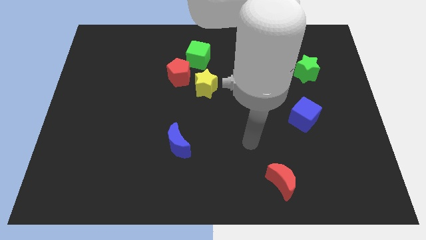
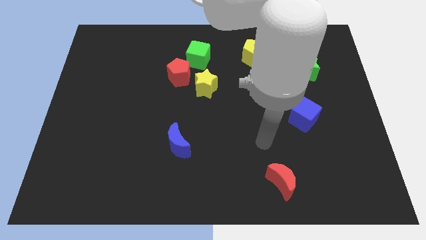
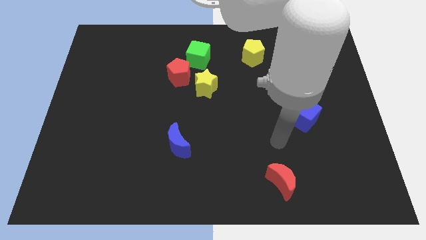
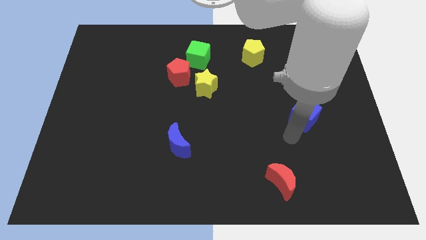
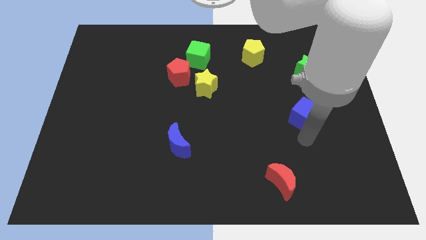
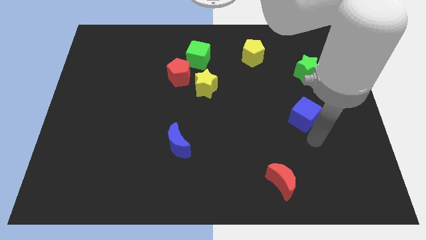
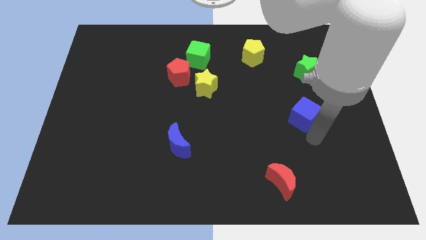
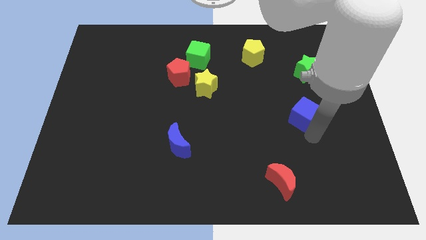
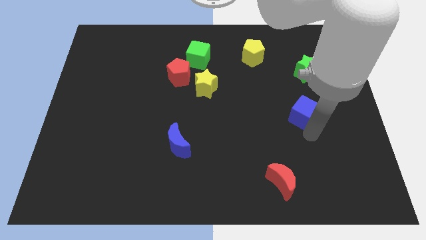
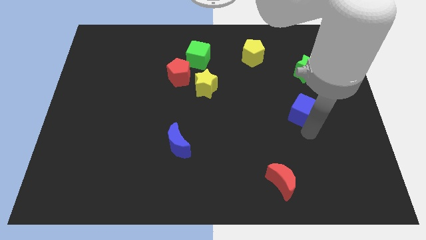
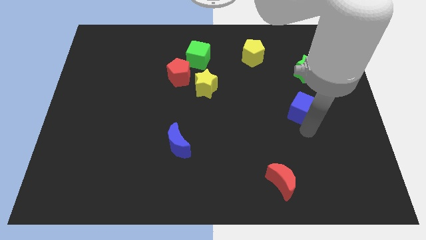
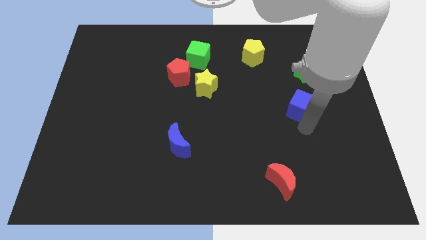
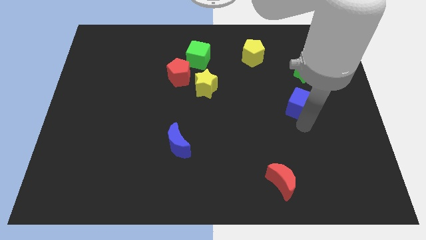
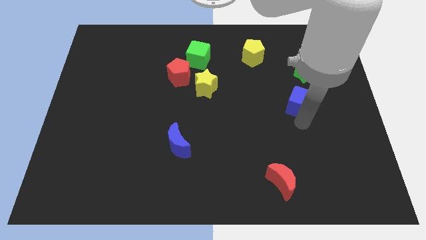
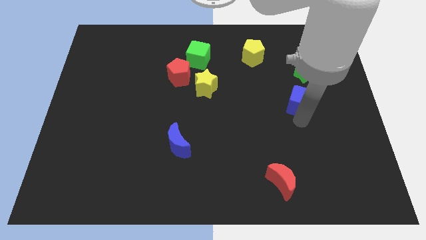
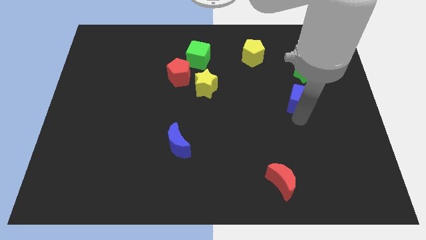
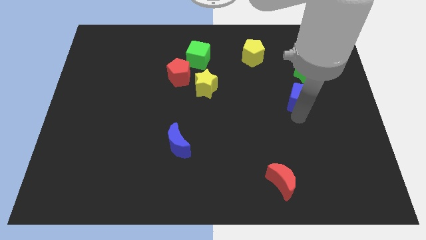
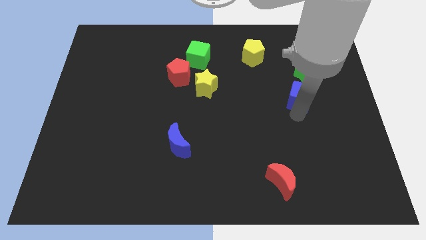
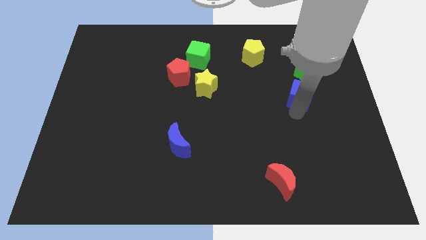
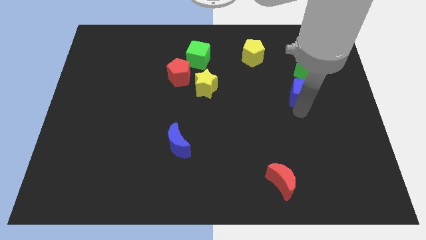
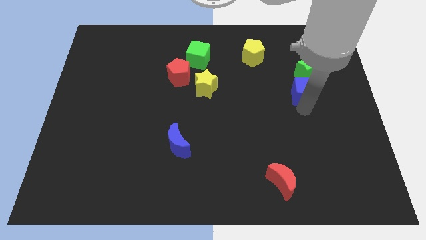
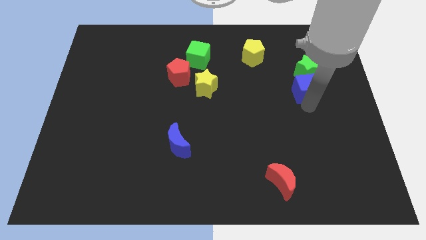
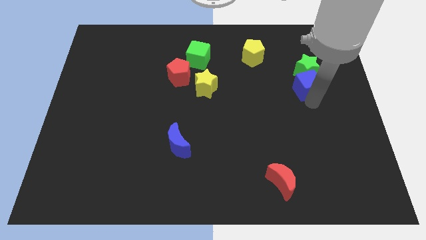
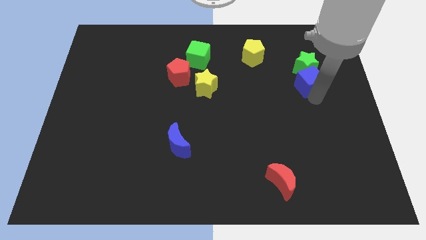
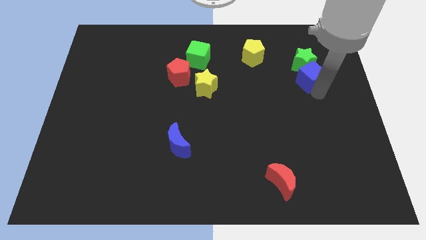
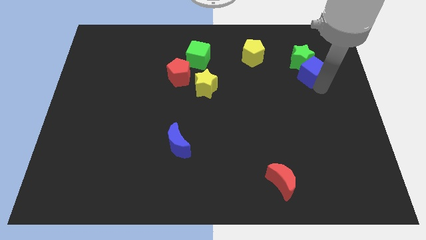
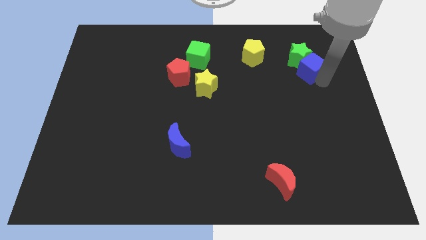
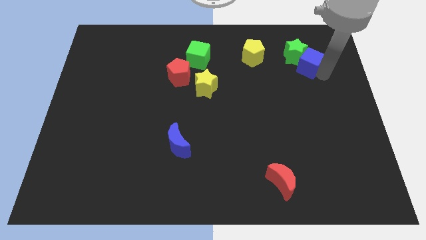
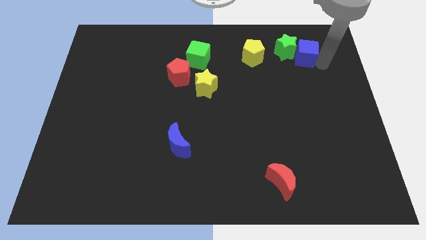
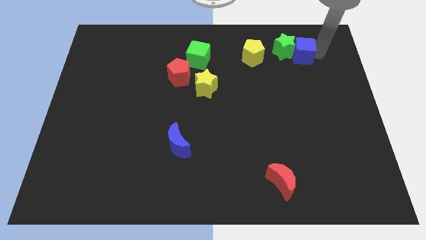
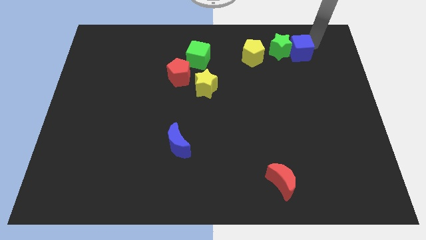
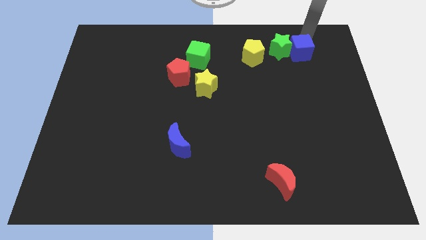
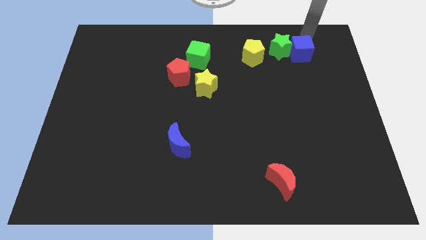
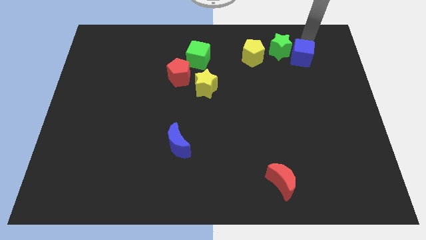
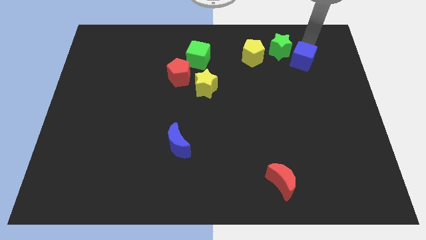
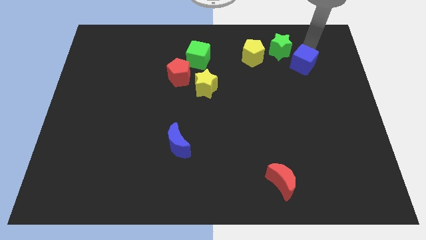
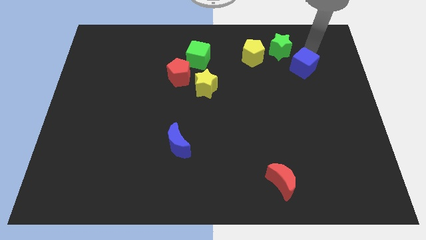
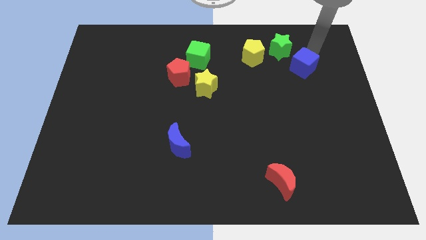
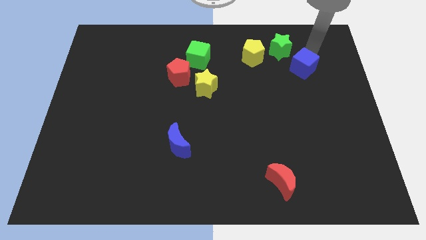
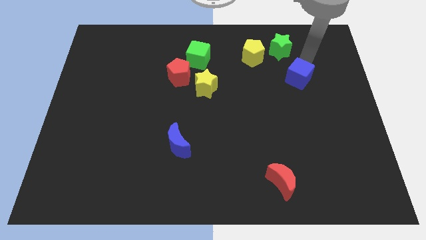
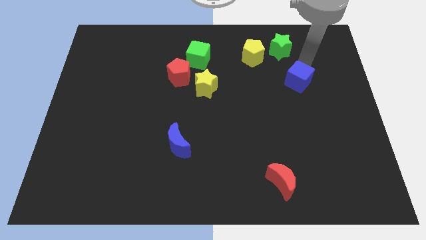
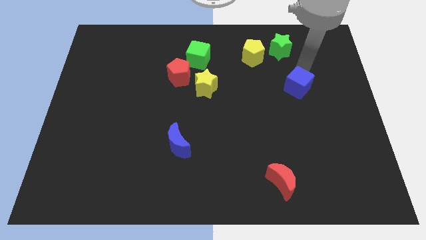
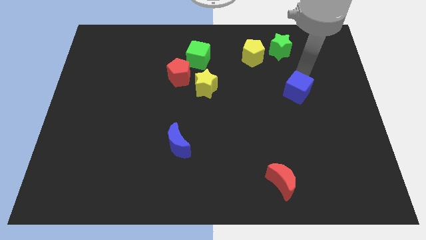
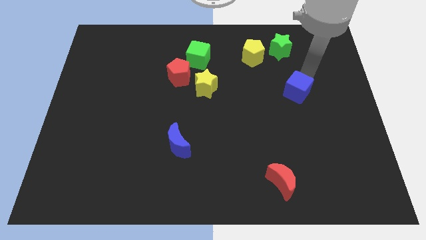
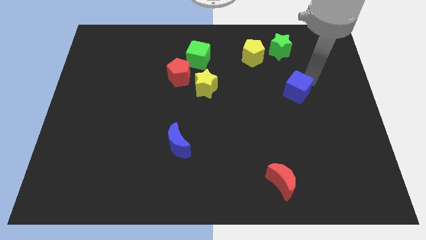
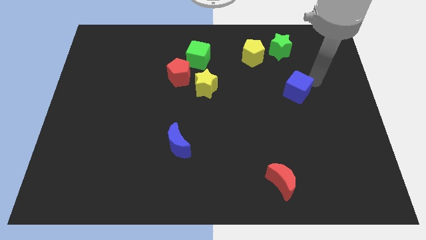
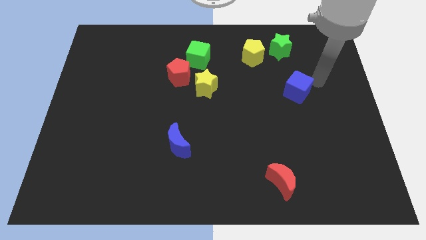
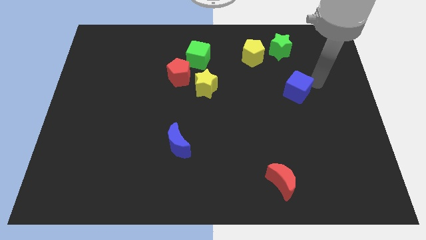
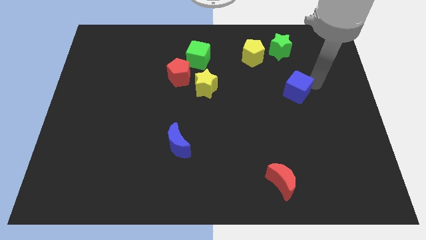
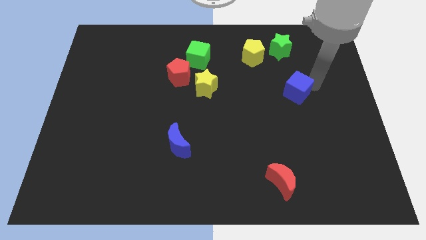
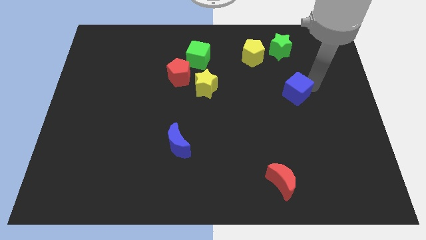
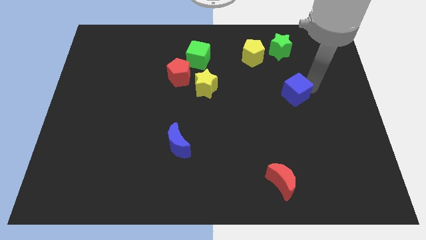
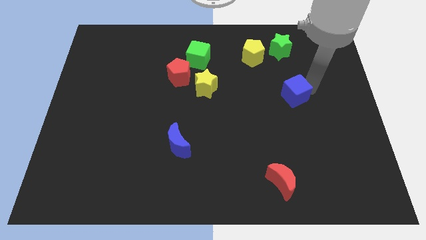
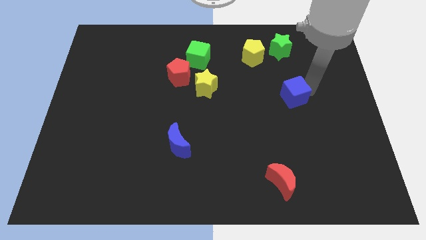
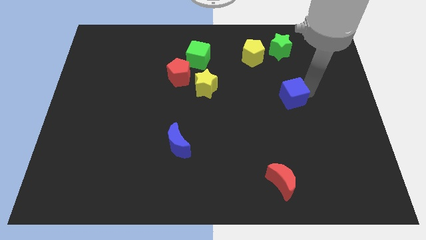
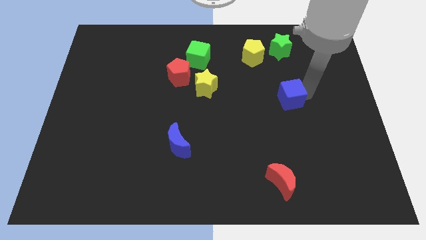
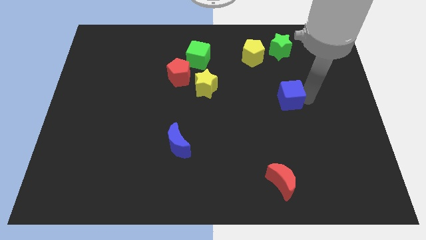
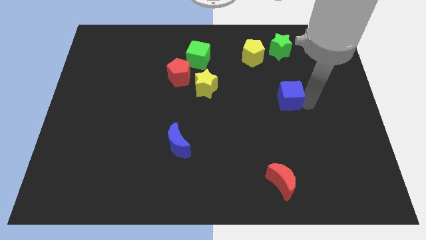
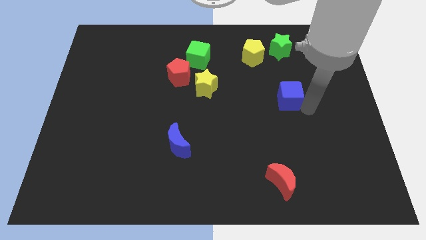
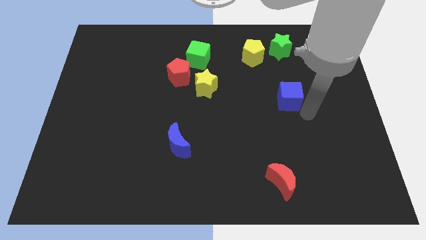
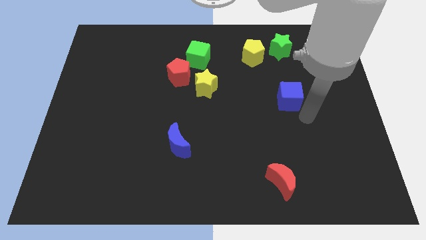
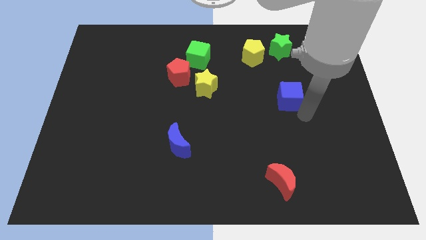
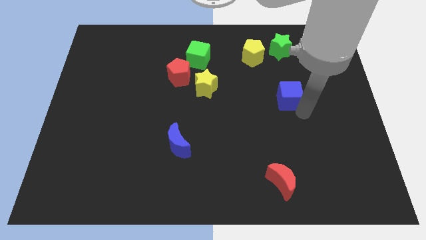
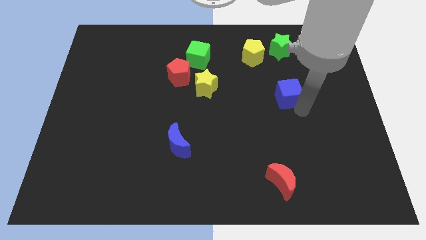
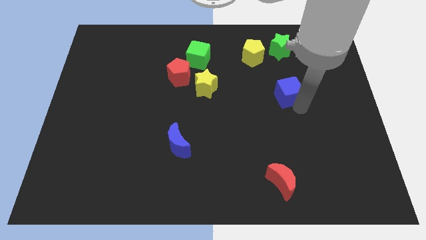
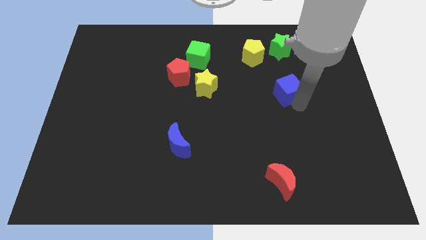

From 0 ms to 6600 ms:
move the blue cube up and to the left diagonally a little

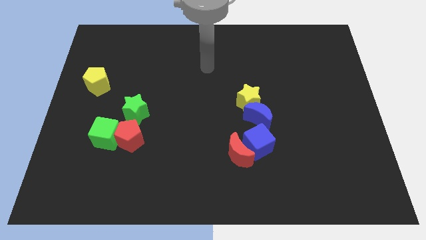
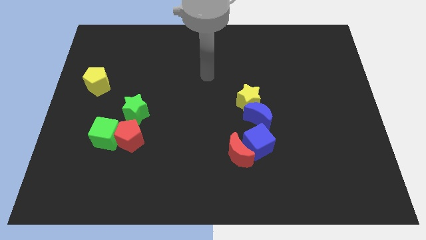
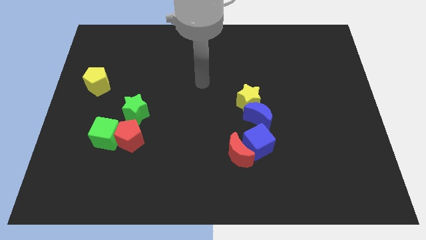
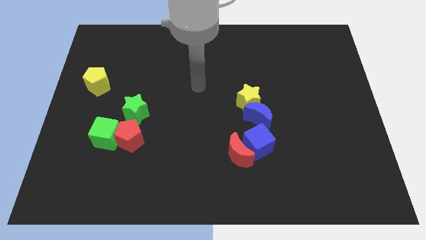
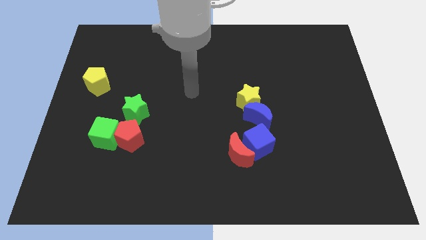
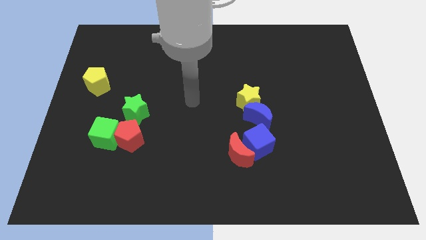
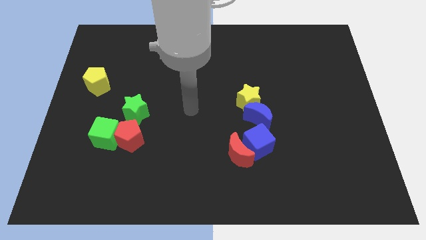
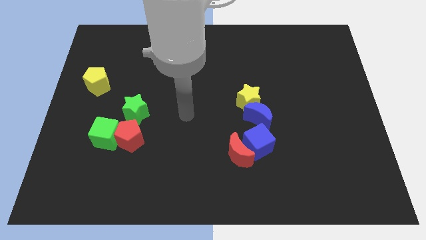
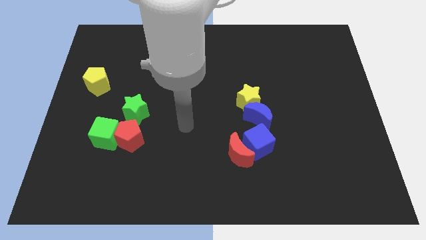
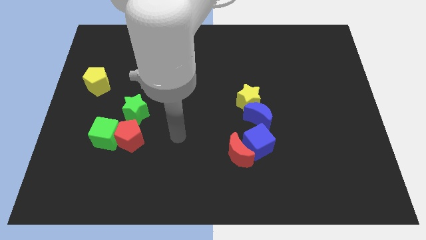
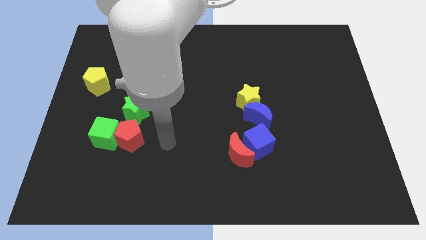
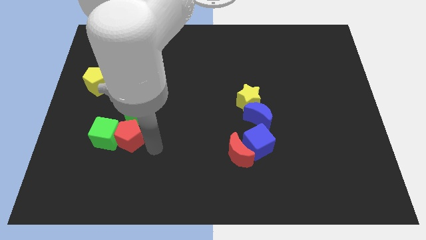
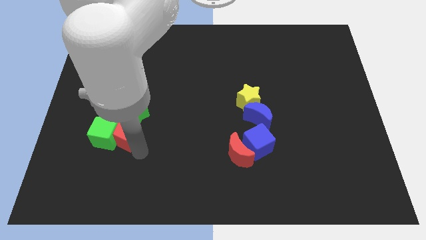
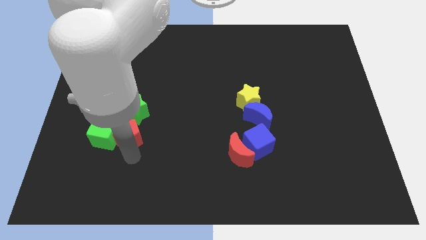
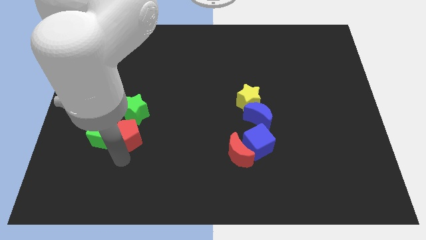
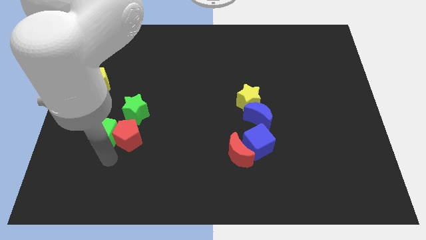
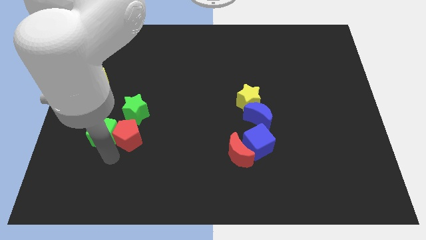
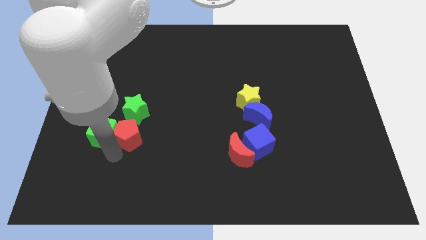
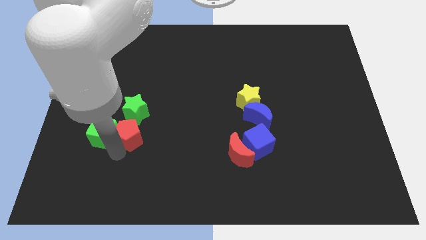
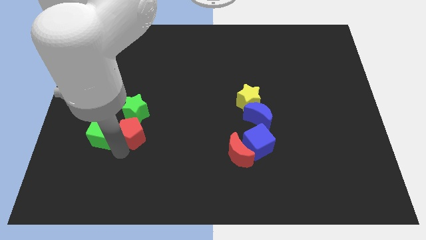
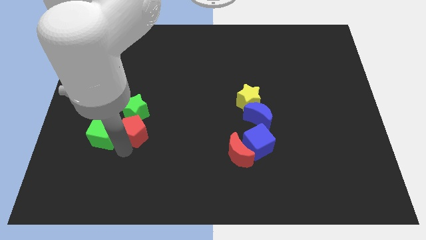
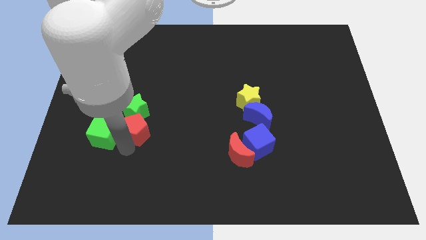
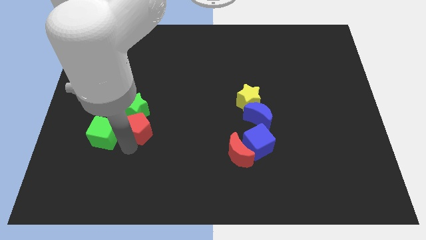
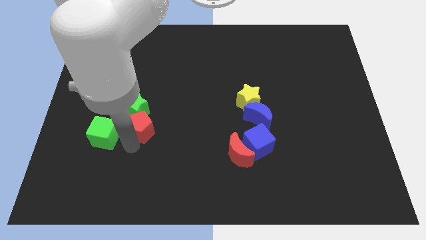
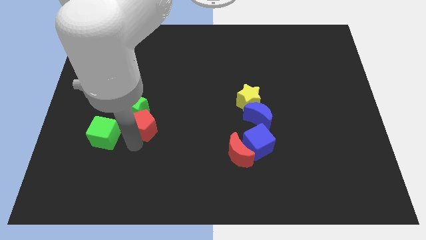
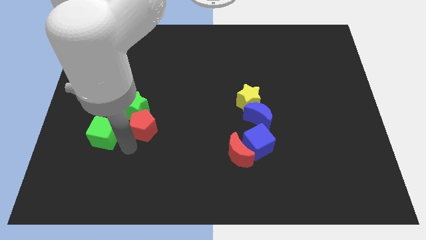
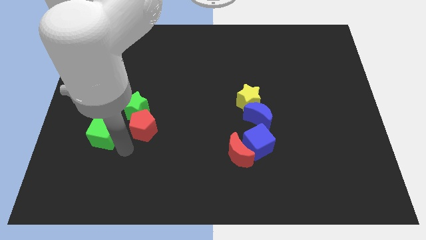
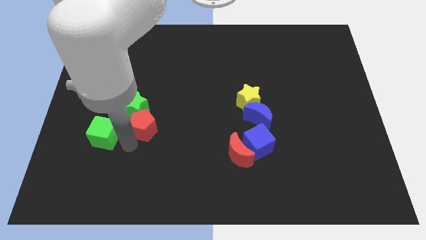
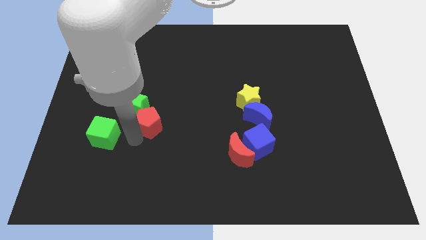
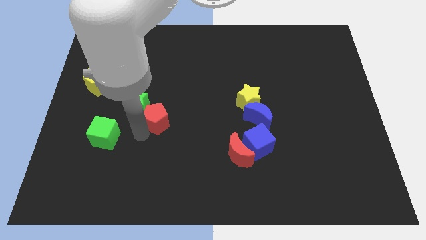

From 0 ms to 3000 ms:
slide the red pentagon upwards and then right slightly
